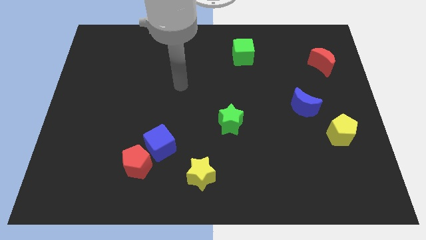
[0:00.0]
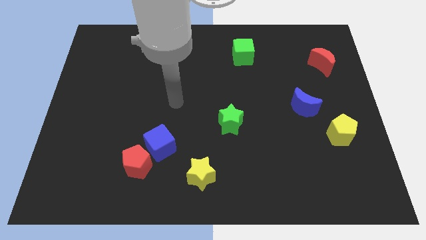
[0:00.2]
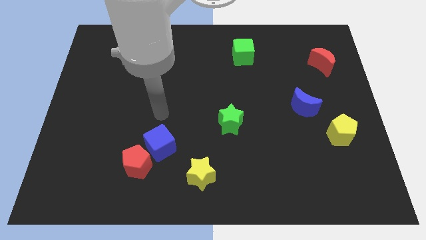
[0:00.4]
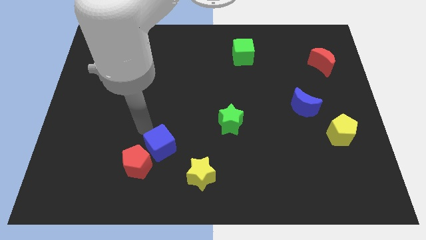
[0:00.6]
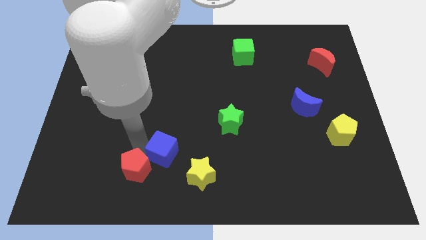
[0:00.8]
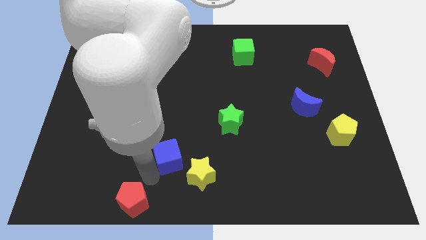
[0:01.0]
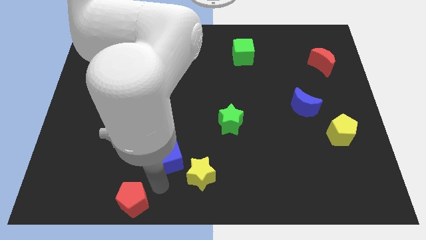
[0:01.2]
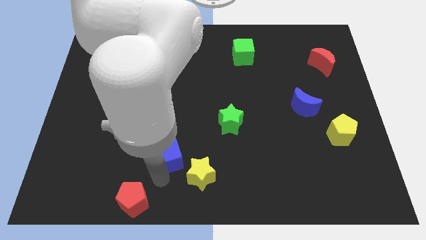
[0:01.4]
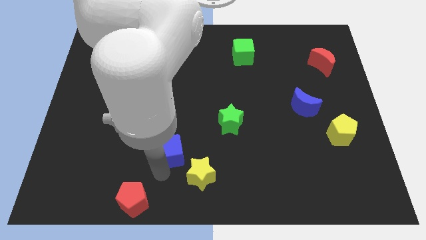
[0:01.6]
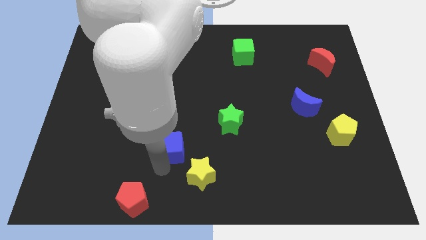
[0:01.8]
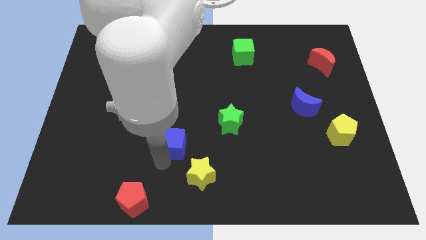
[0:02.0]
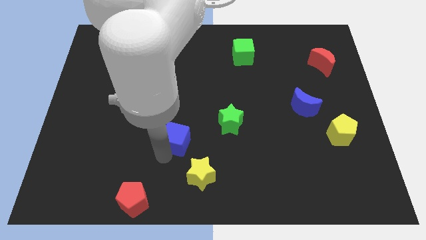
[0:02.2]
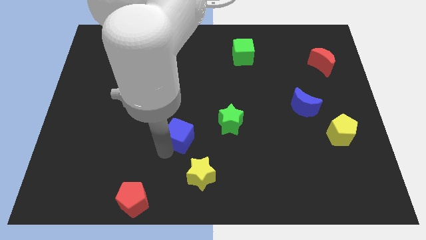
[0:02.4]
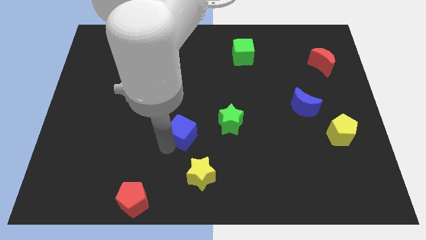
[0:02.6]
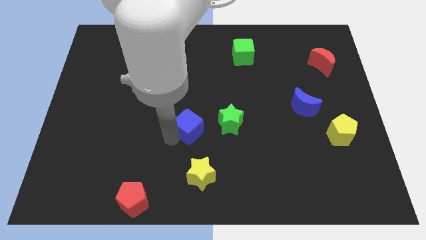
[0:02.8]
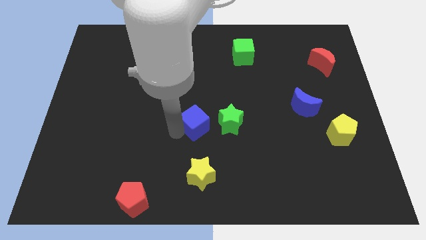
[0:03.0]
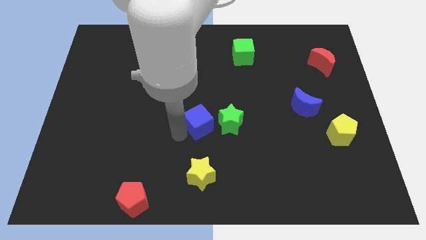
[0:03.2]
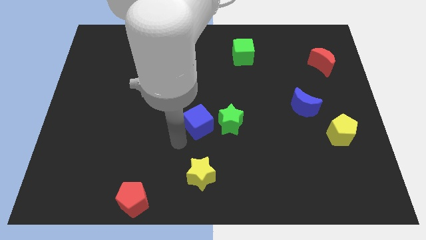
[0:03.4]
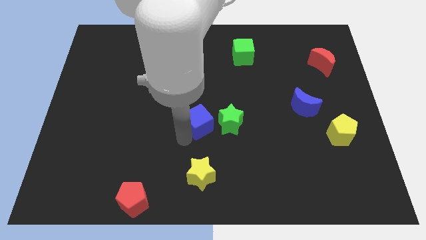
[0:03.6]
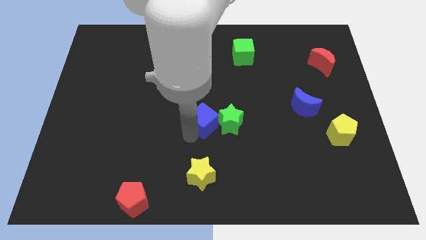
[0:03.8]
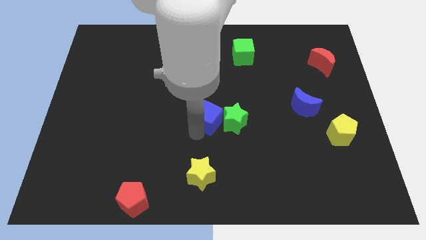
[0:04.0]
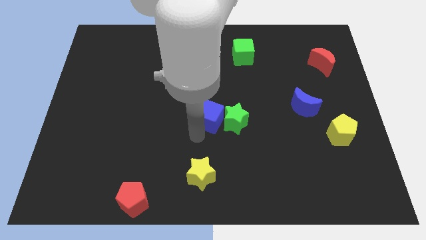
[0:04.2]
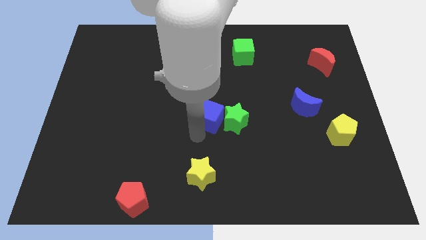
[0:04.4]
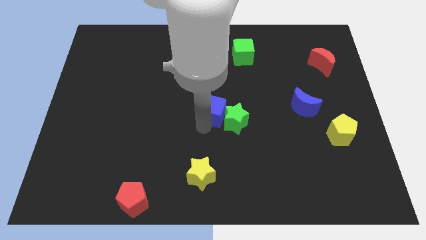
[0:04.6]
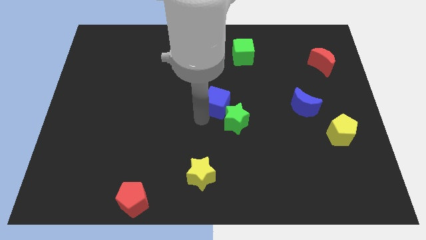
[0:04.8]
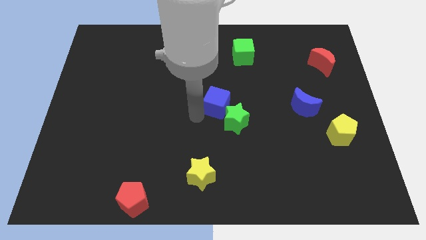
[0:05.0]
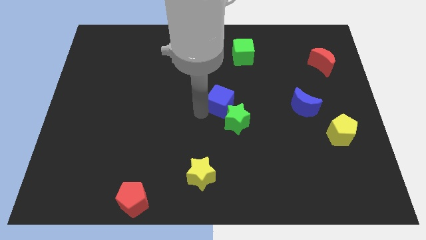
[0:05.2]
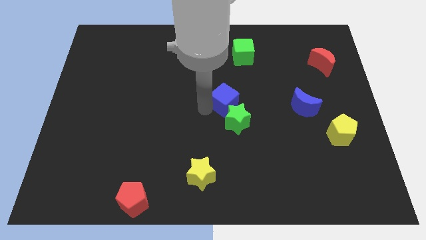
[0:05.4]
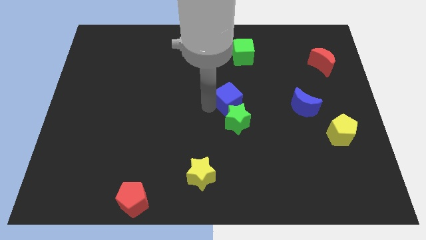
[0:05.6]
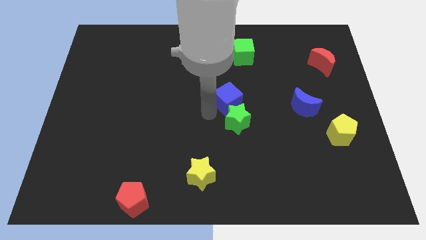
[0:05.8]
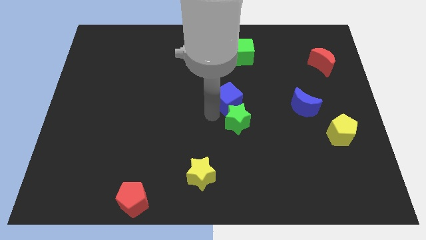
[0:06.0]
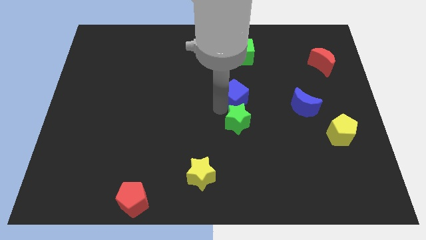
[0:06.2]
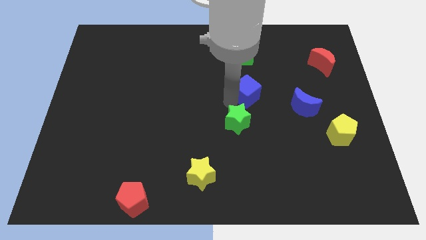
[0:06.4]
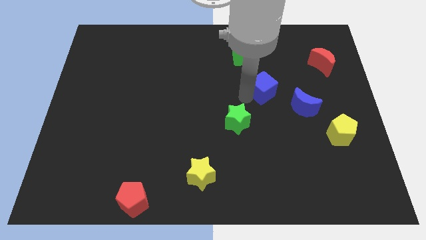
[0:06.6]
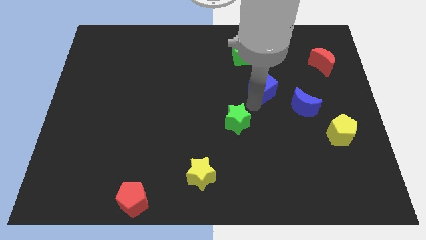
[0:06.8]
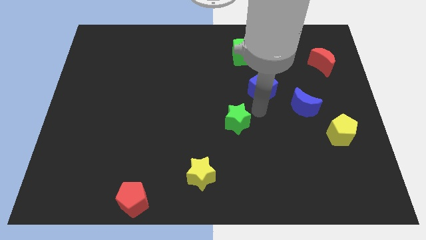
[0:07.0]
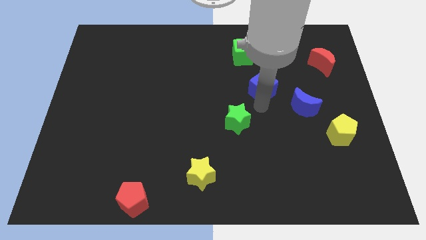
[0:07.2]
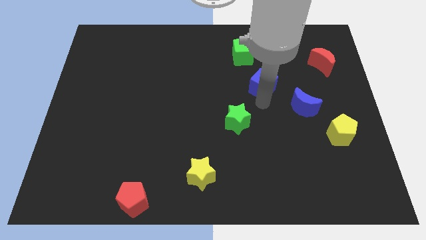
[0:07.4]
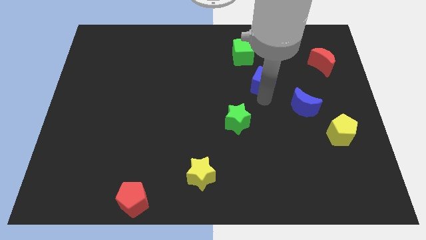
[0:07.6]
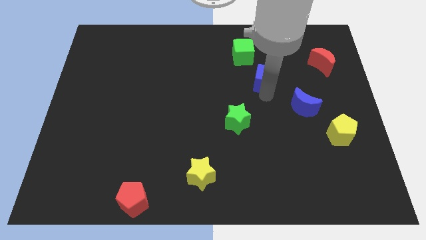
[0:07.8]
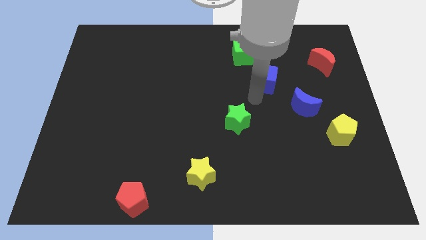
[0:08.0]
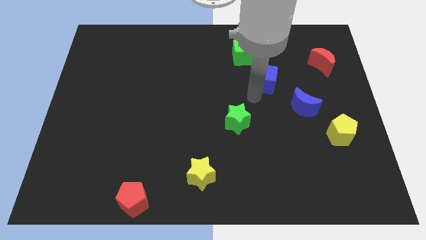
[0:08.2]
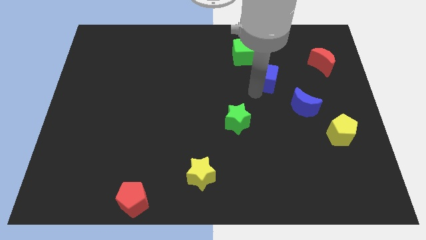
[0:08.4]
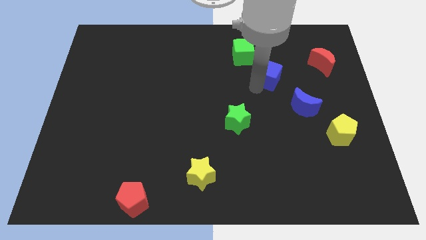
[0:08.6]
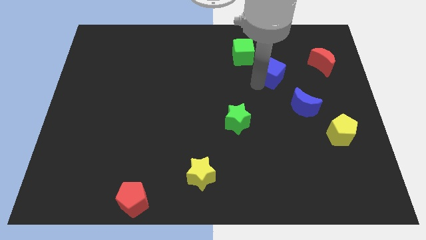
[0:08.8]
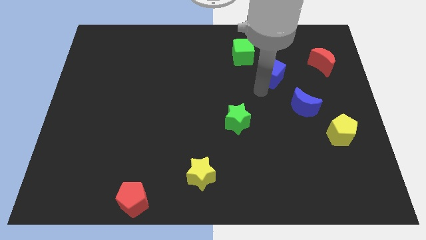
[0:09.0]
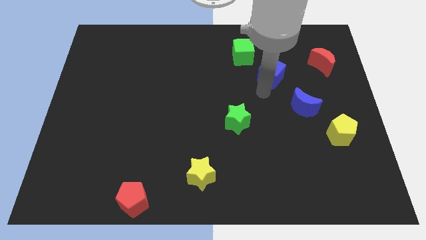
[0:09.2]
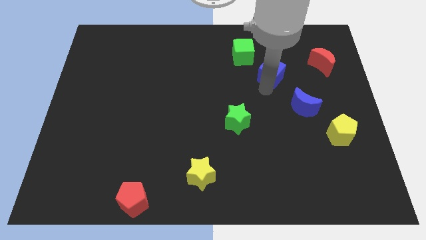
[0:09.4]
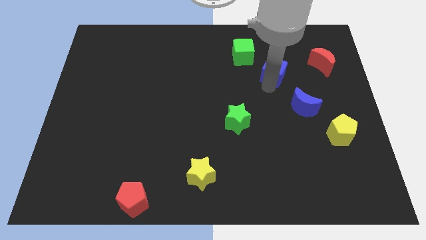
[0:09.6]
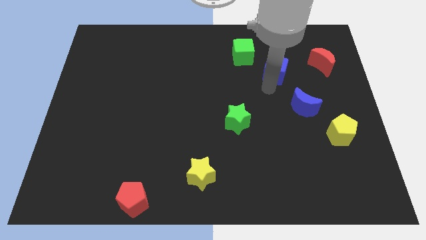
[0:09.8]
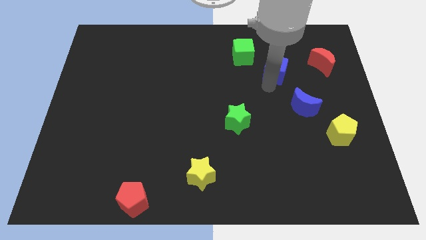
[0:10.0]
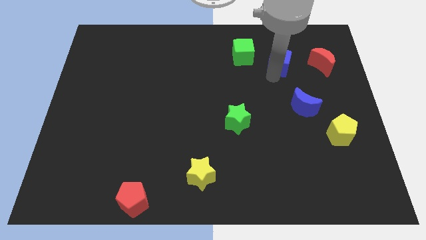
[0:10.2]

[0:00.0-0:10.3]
move the blue cube just right of the green cube

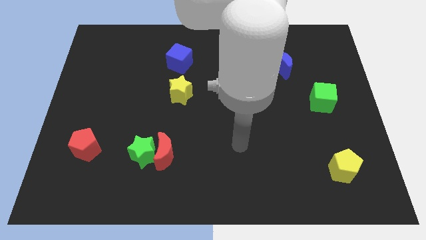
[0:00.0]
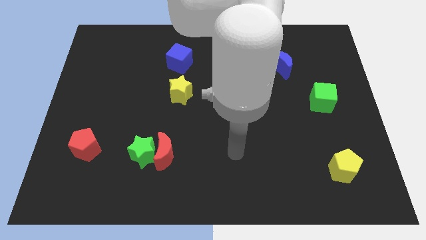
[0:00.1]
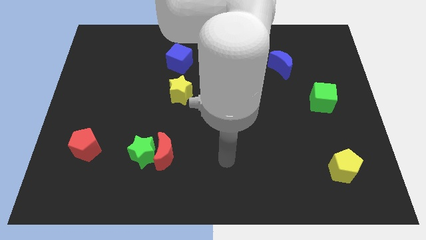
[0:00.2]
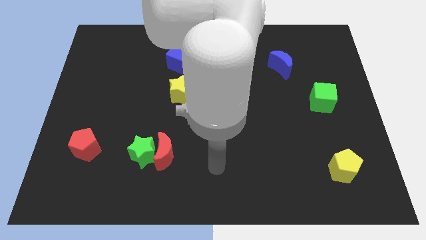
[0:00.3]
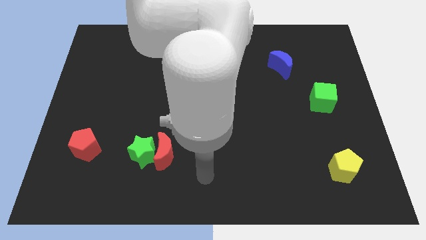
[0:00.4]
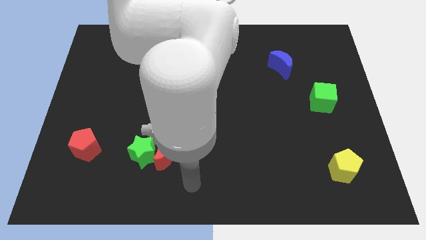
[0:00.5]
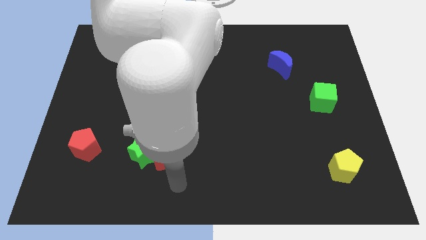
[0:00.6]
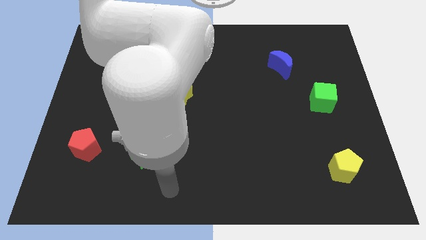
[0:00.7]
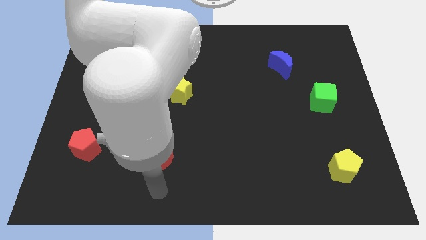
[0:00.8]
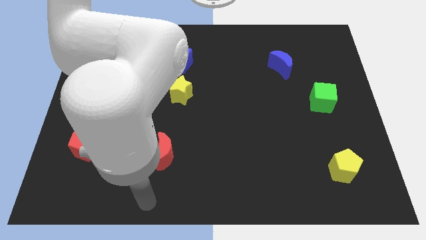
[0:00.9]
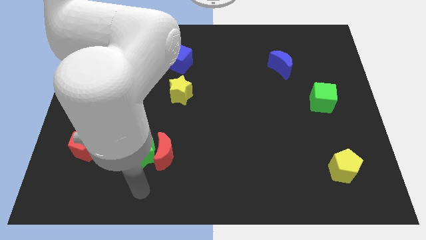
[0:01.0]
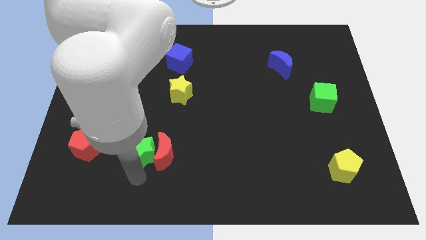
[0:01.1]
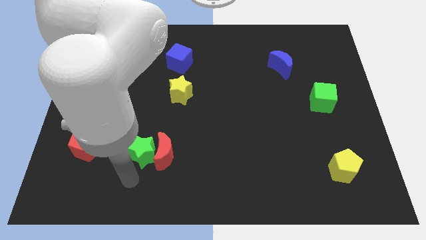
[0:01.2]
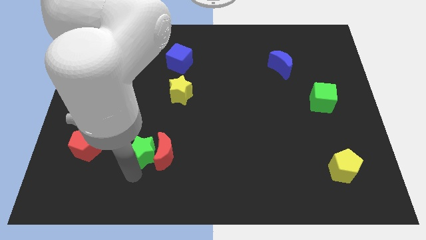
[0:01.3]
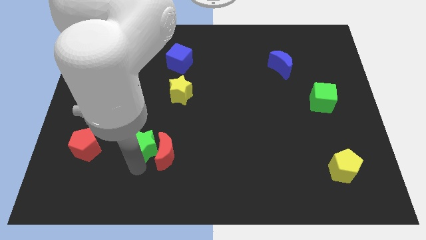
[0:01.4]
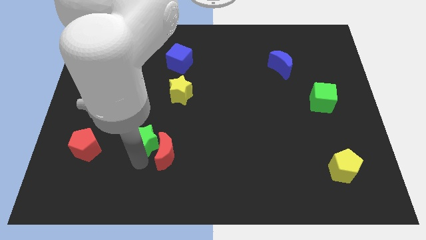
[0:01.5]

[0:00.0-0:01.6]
slide the green star to the top of the red moon

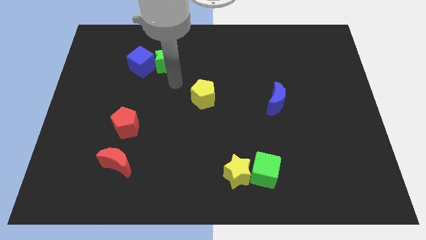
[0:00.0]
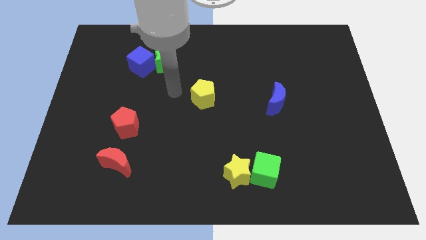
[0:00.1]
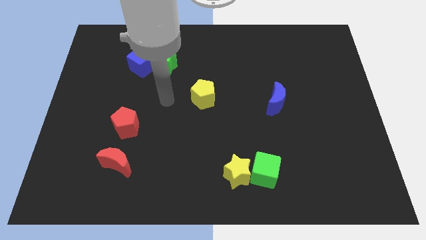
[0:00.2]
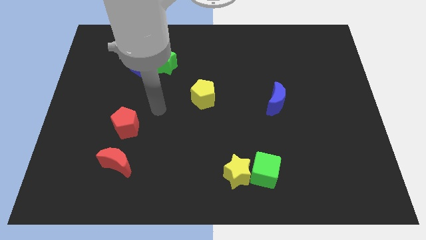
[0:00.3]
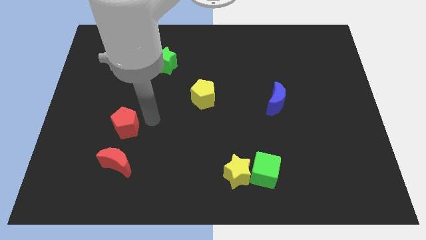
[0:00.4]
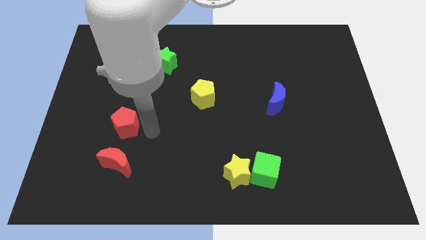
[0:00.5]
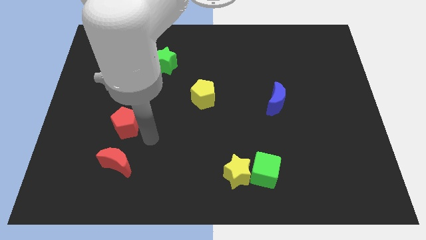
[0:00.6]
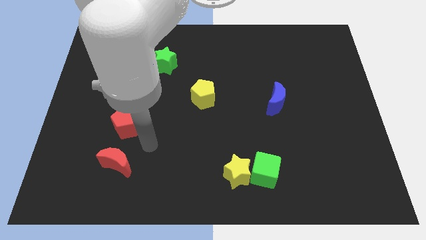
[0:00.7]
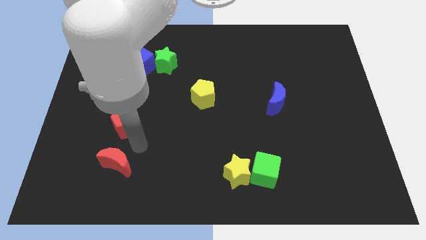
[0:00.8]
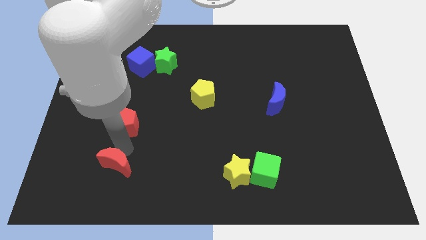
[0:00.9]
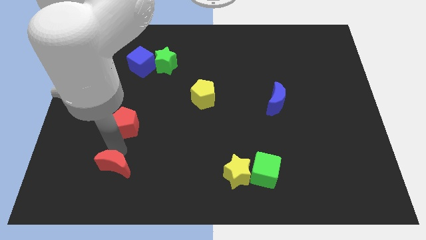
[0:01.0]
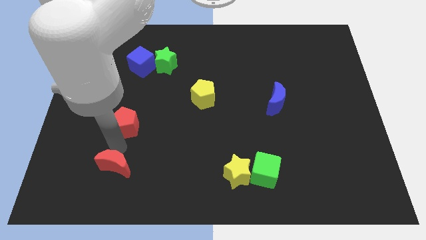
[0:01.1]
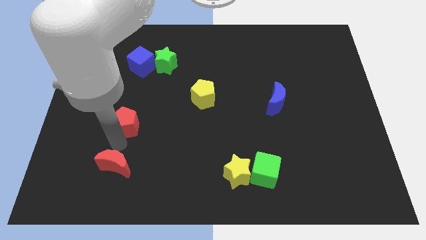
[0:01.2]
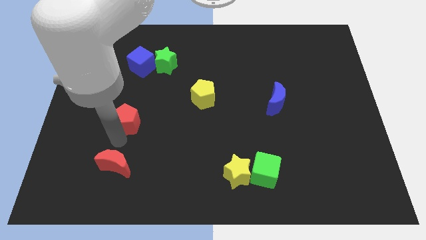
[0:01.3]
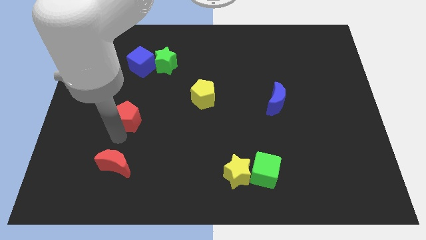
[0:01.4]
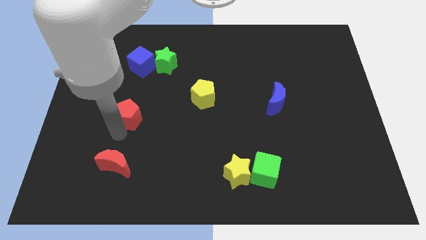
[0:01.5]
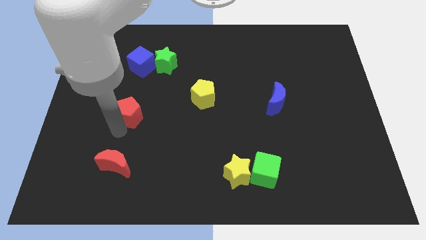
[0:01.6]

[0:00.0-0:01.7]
slide the red pentagon to the bottom of the blue cube
